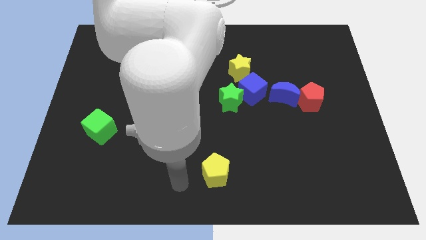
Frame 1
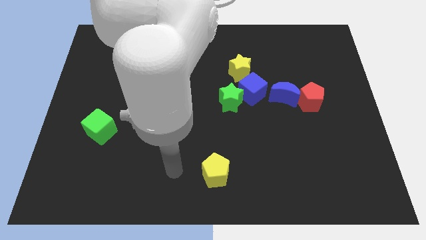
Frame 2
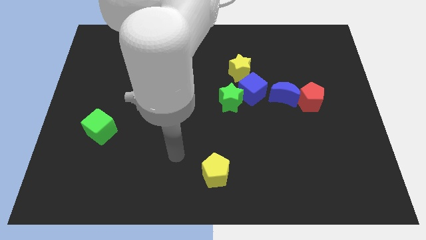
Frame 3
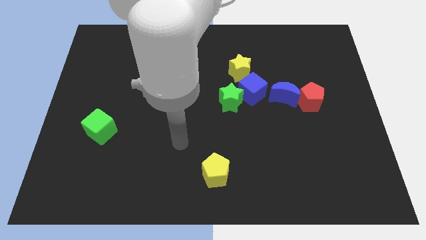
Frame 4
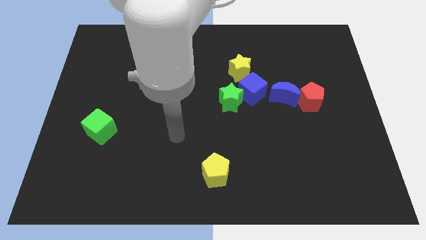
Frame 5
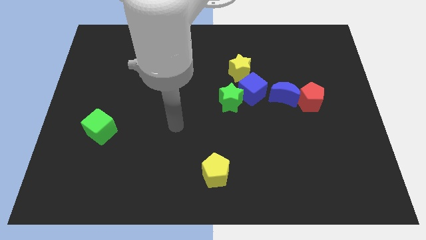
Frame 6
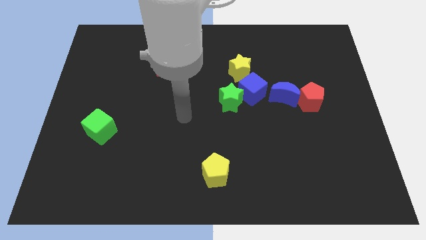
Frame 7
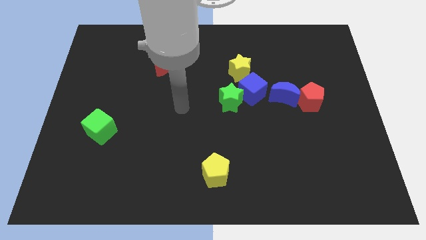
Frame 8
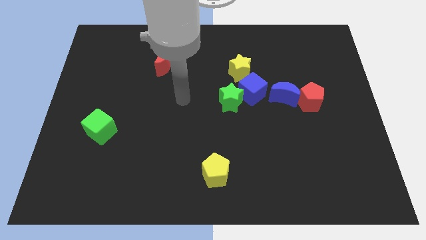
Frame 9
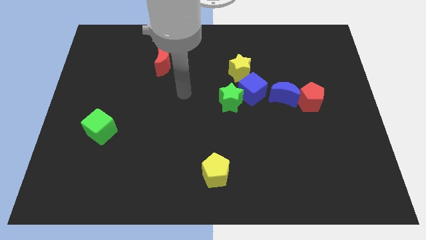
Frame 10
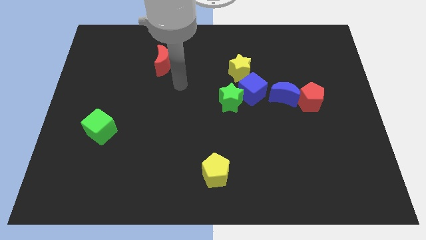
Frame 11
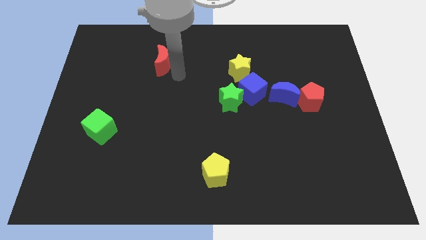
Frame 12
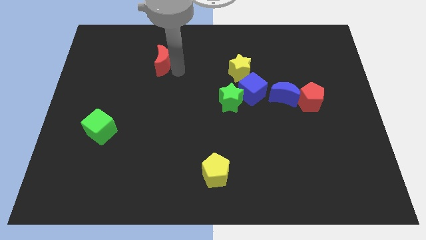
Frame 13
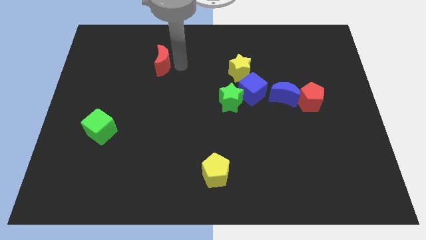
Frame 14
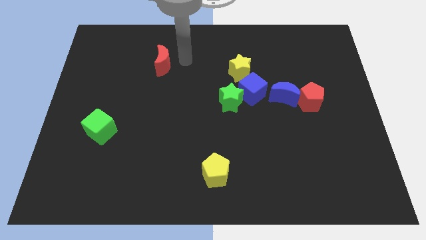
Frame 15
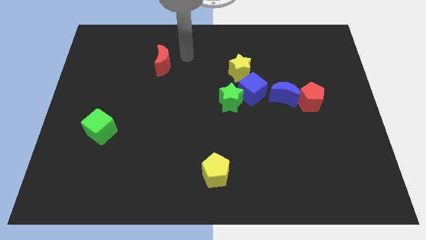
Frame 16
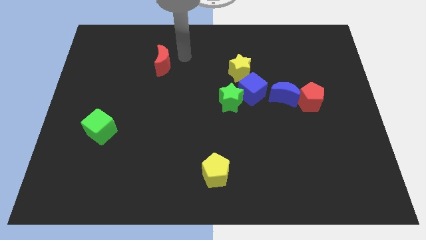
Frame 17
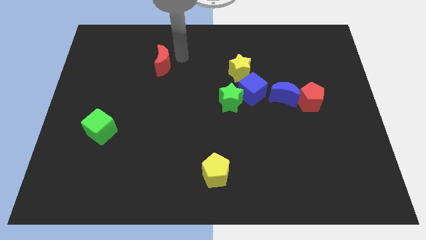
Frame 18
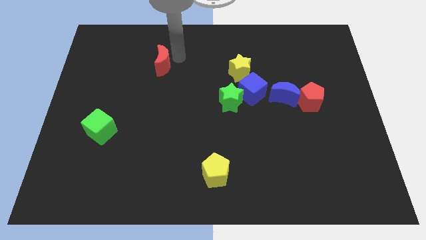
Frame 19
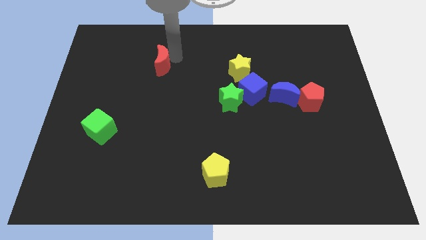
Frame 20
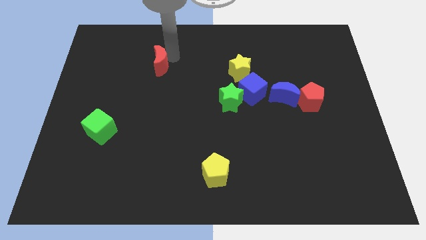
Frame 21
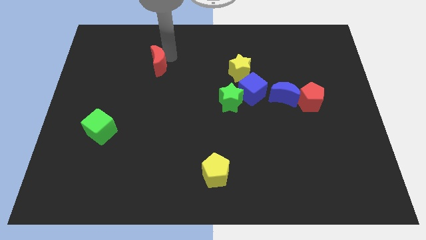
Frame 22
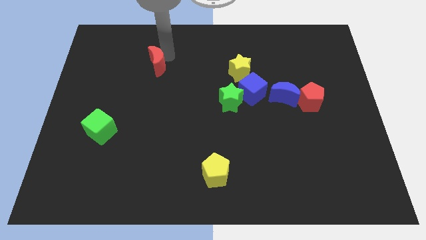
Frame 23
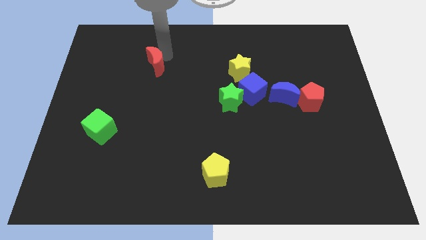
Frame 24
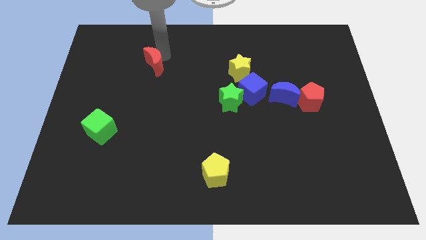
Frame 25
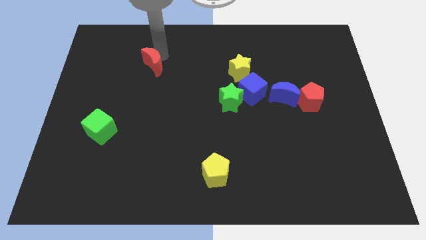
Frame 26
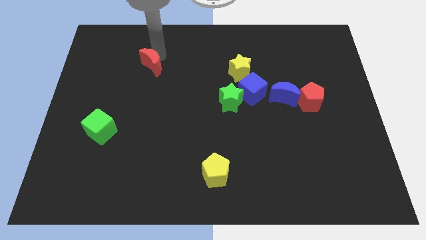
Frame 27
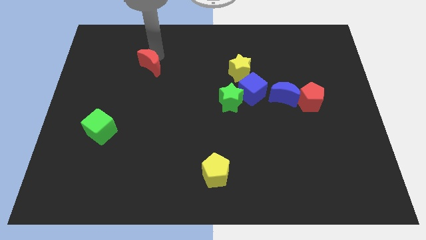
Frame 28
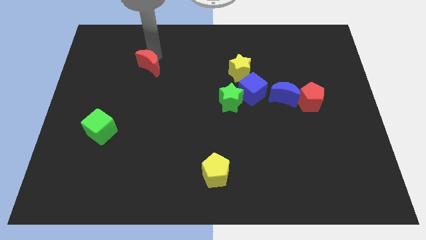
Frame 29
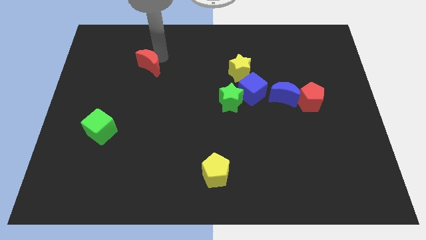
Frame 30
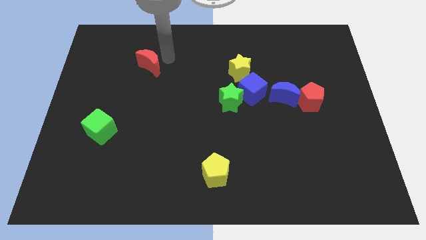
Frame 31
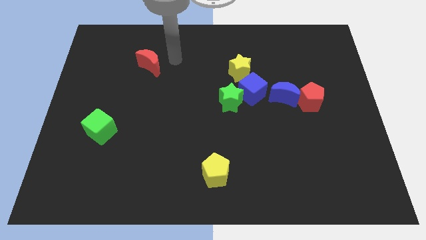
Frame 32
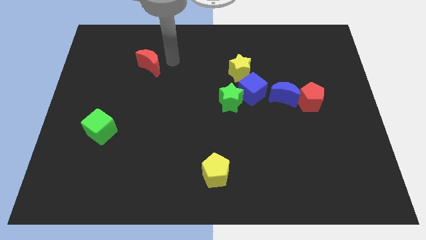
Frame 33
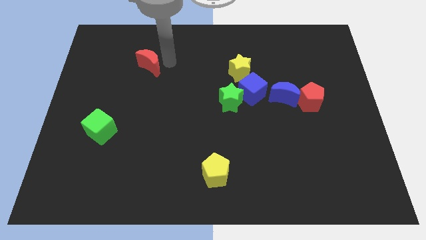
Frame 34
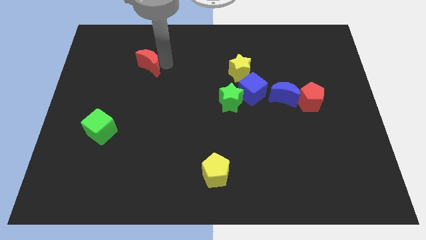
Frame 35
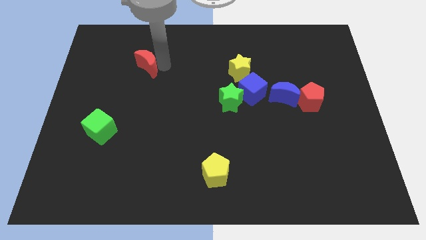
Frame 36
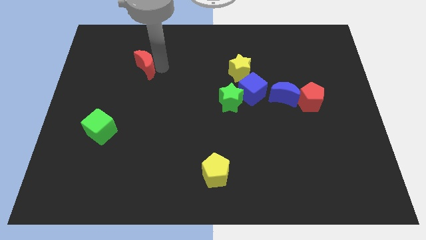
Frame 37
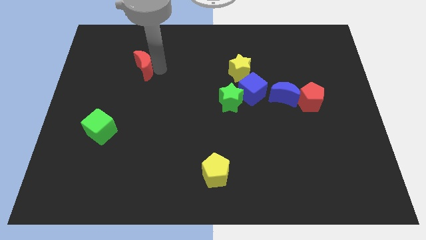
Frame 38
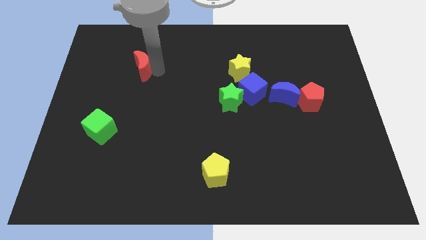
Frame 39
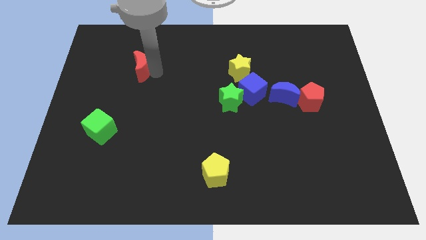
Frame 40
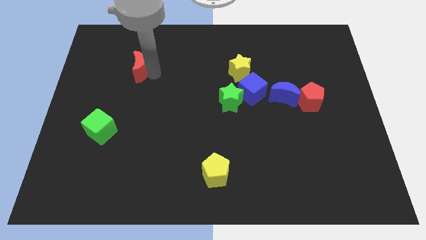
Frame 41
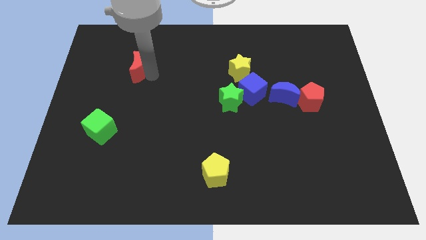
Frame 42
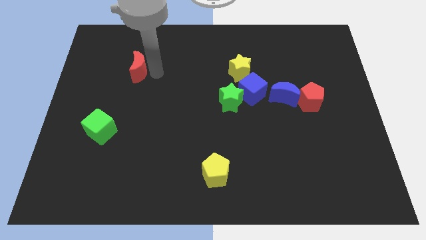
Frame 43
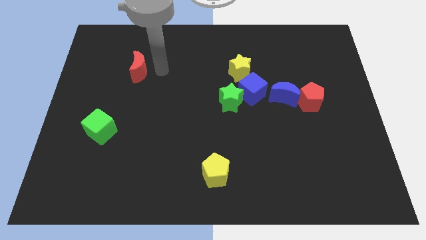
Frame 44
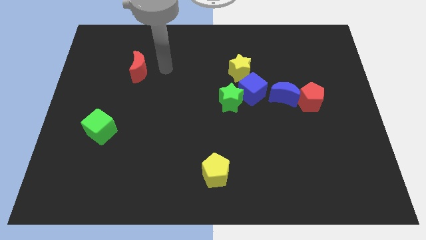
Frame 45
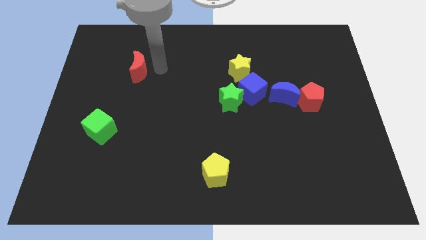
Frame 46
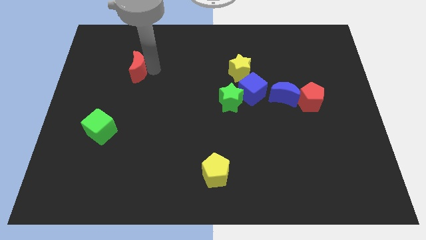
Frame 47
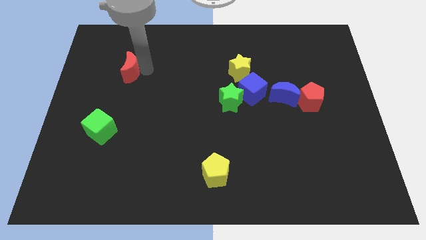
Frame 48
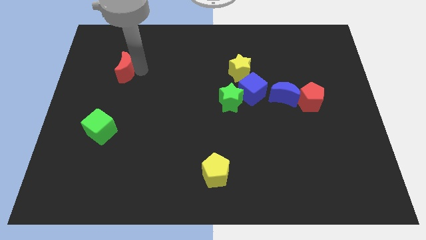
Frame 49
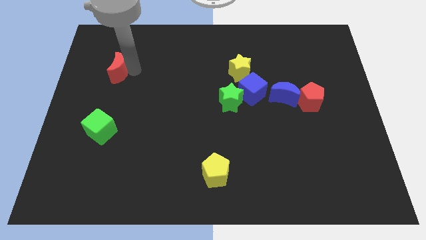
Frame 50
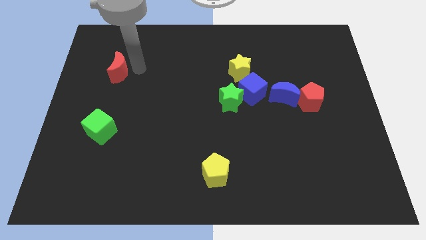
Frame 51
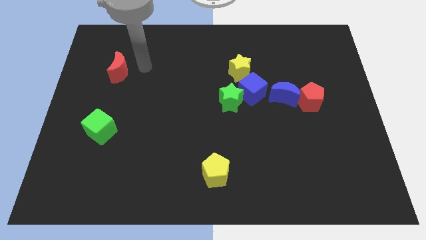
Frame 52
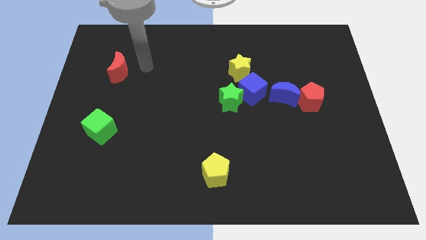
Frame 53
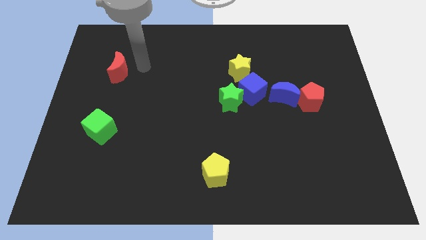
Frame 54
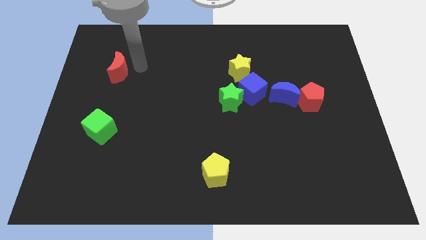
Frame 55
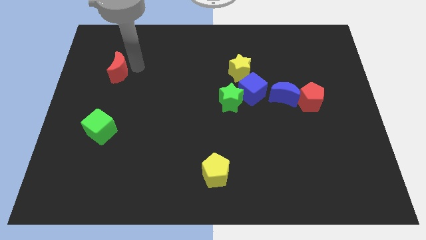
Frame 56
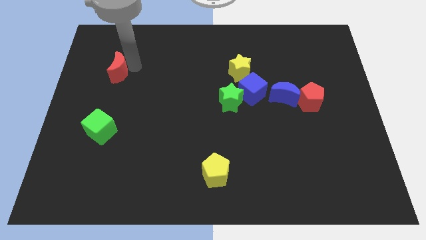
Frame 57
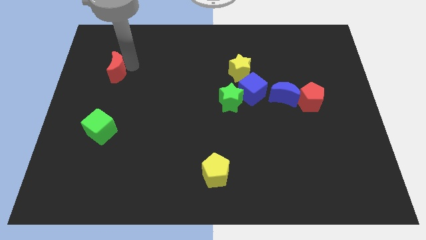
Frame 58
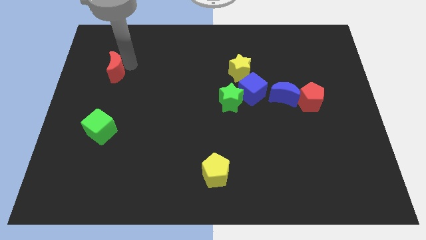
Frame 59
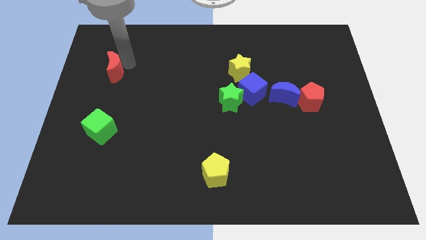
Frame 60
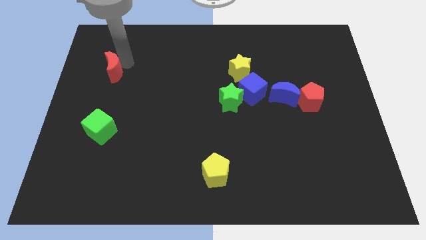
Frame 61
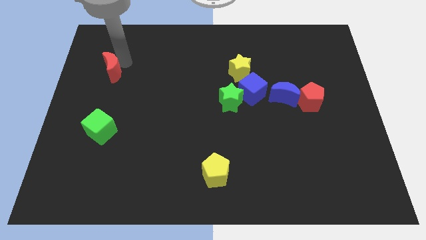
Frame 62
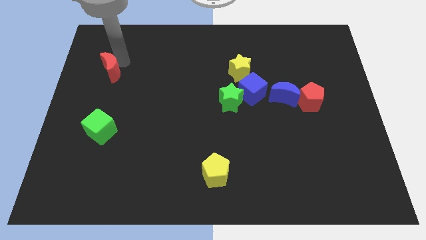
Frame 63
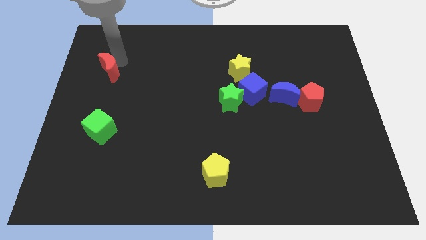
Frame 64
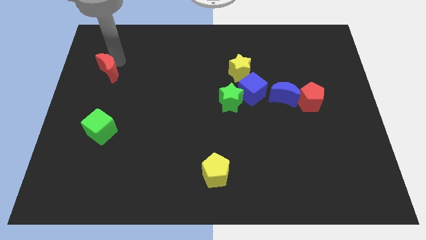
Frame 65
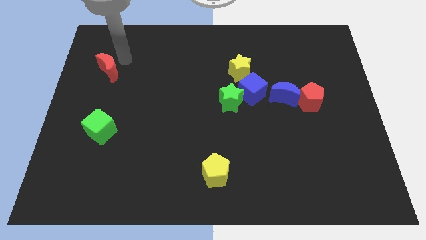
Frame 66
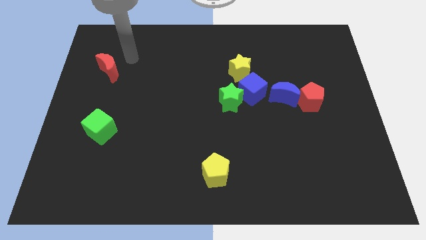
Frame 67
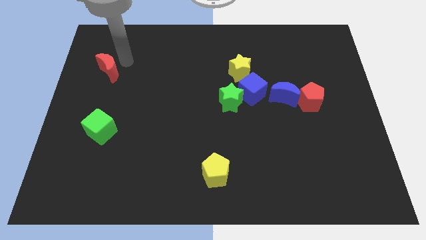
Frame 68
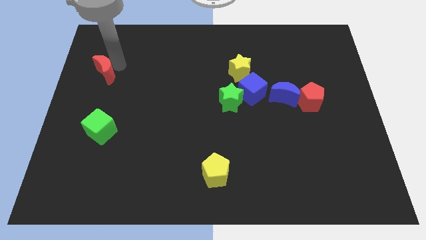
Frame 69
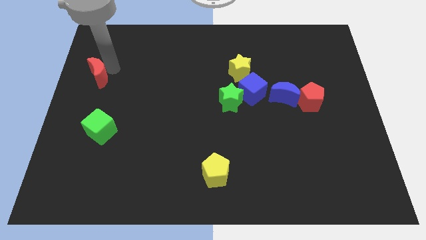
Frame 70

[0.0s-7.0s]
push the red moon to the left side

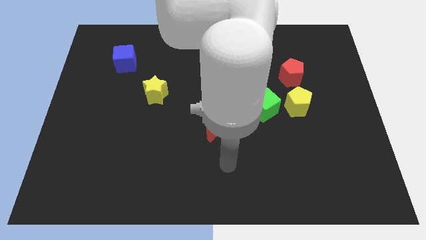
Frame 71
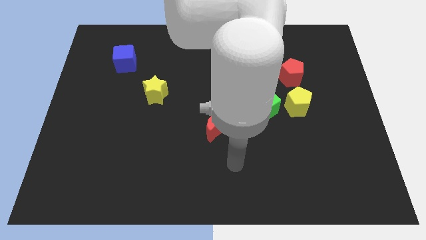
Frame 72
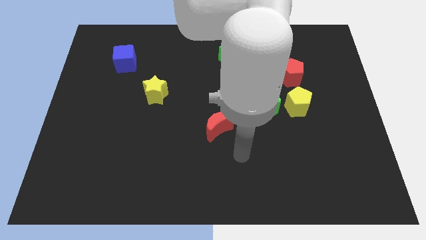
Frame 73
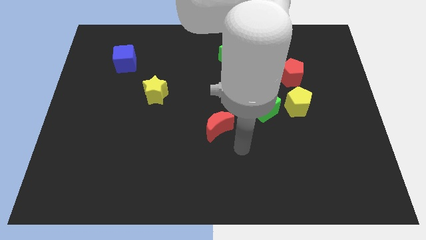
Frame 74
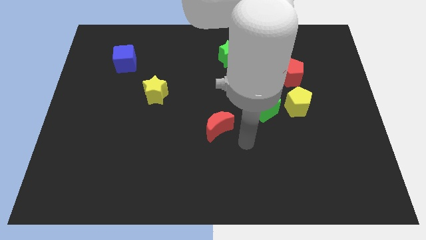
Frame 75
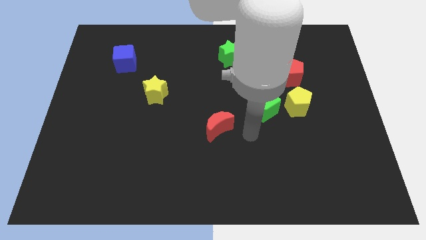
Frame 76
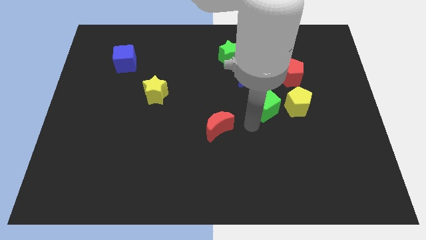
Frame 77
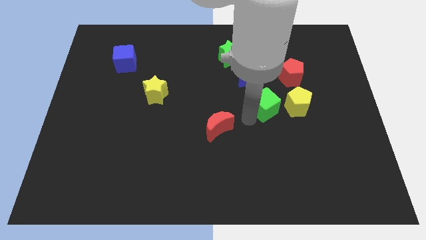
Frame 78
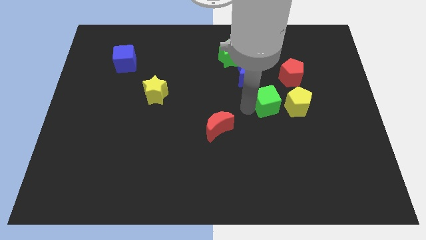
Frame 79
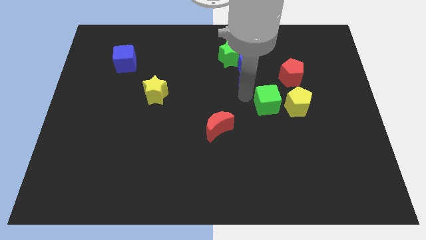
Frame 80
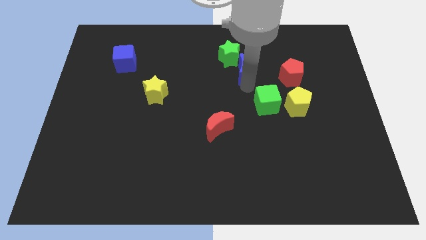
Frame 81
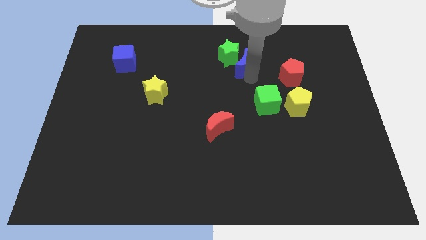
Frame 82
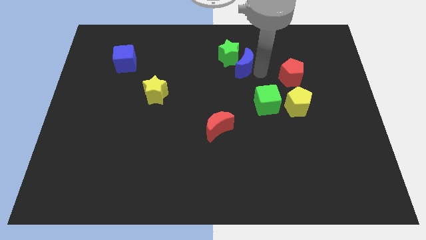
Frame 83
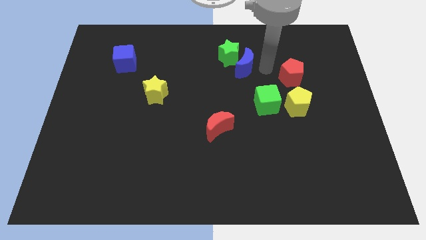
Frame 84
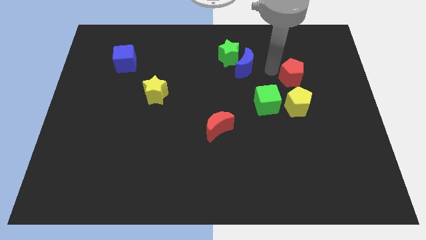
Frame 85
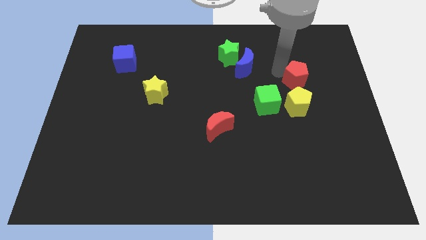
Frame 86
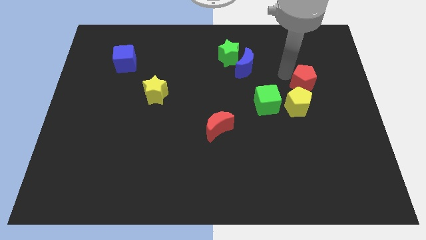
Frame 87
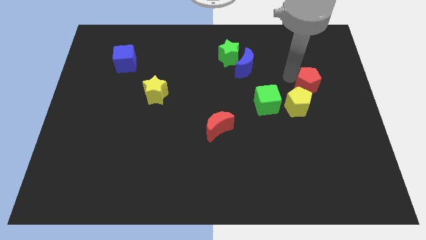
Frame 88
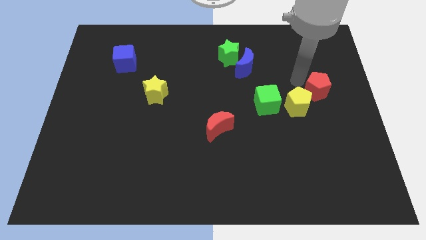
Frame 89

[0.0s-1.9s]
move the red pentagon to the right side of the board
